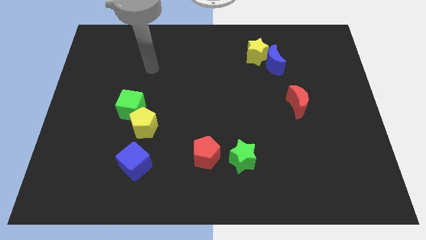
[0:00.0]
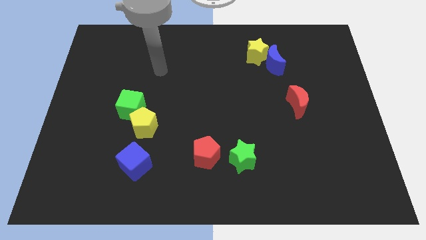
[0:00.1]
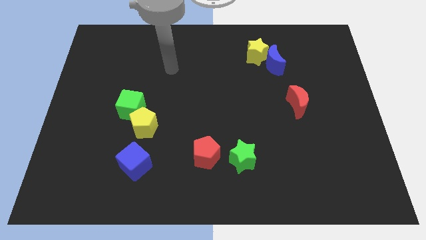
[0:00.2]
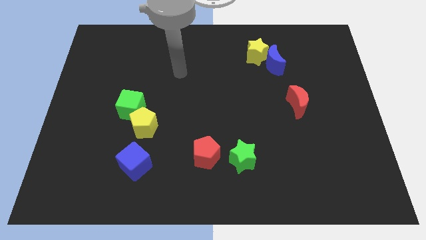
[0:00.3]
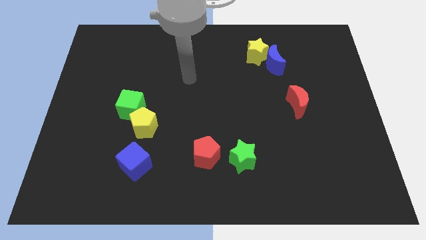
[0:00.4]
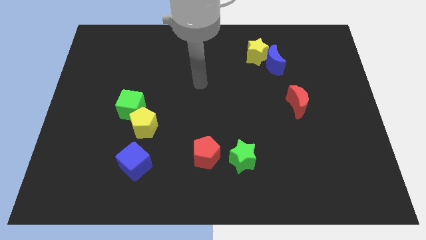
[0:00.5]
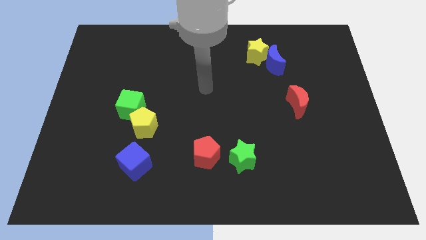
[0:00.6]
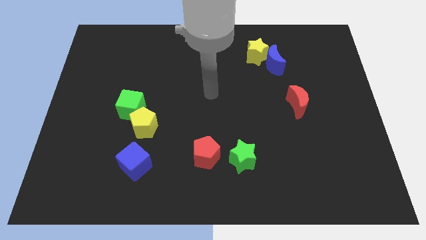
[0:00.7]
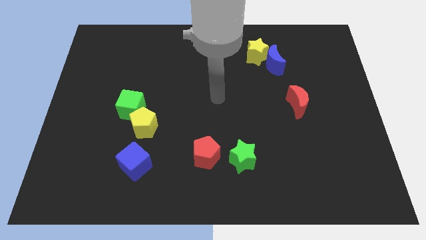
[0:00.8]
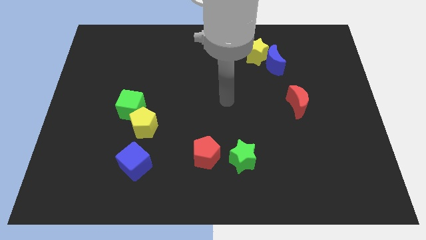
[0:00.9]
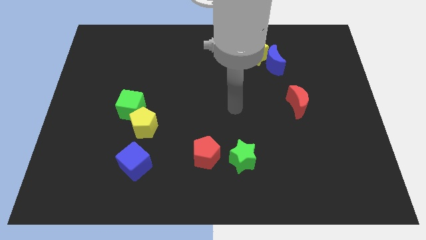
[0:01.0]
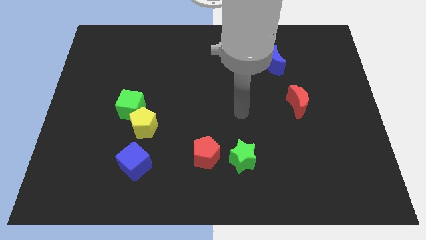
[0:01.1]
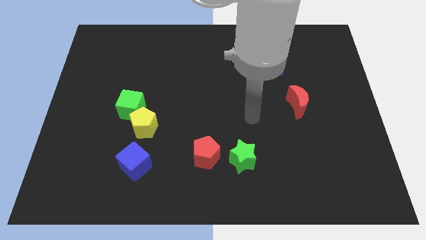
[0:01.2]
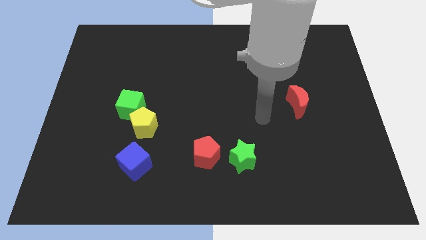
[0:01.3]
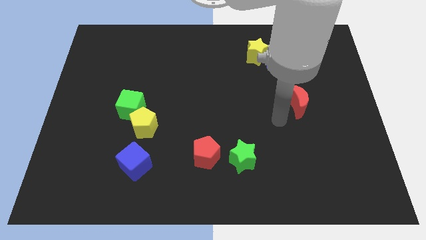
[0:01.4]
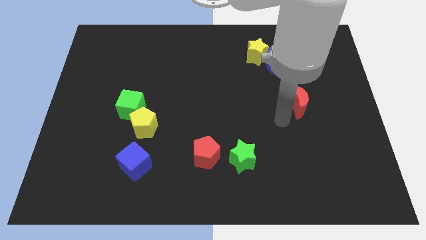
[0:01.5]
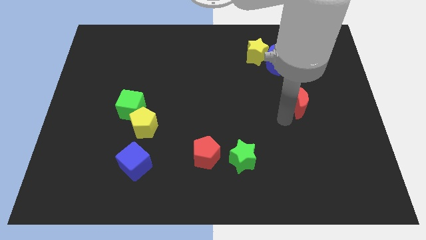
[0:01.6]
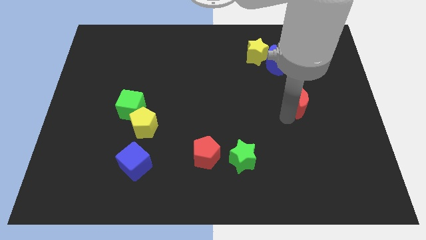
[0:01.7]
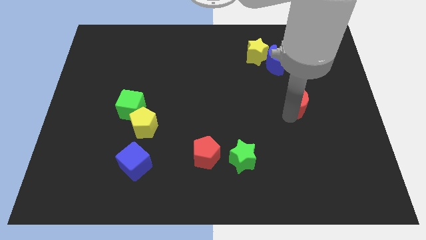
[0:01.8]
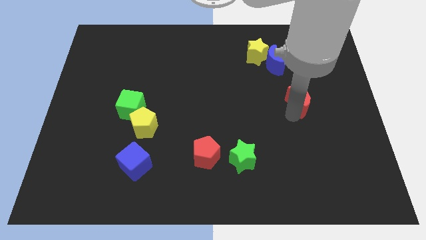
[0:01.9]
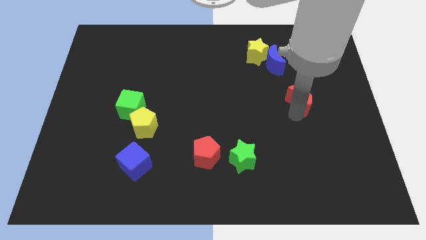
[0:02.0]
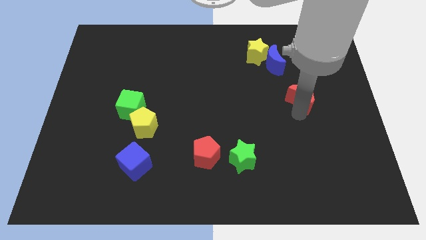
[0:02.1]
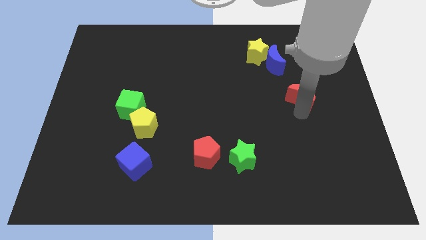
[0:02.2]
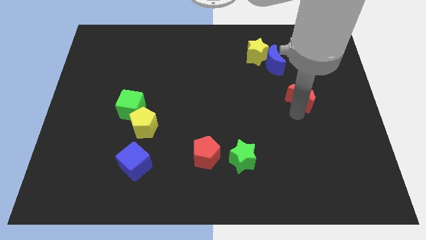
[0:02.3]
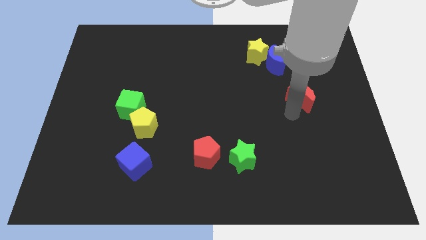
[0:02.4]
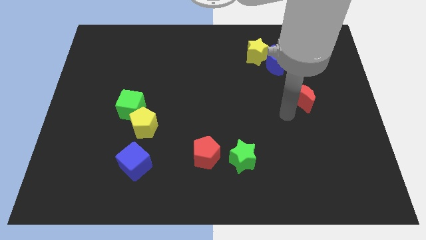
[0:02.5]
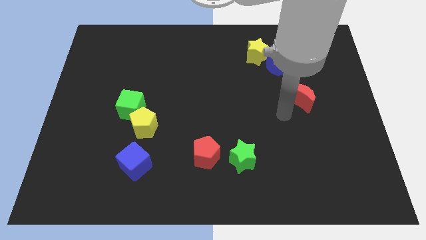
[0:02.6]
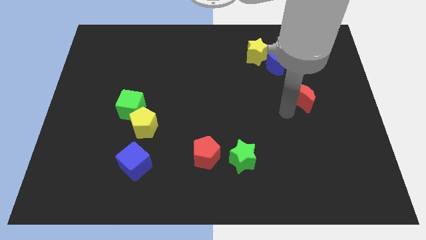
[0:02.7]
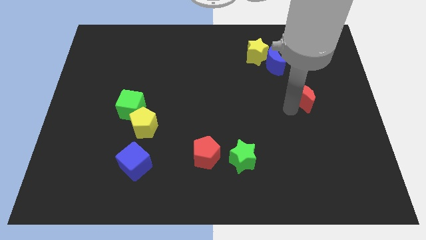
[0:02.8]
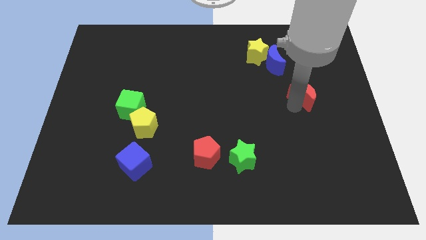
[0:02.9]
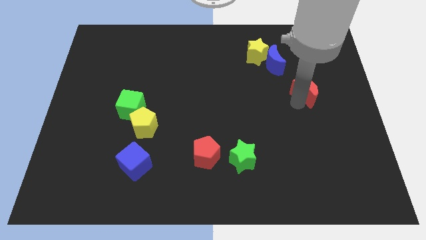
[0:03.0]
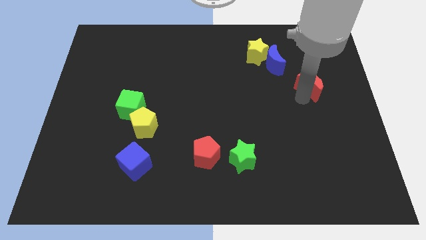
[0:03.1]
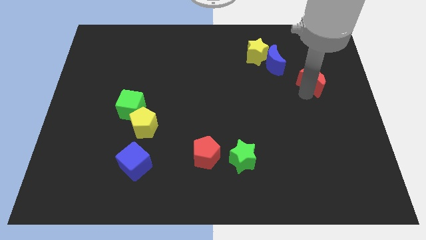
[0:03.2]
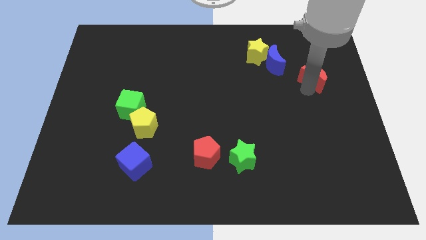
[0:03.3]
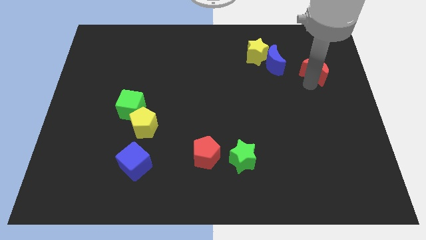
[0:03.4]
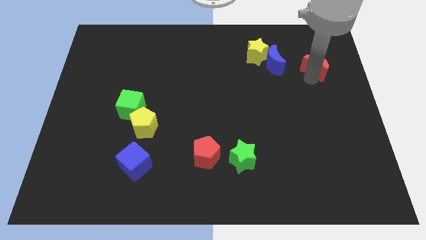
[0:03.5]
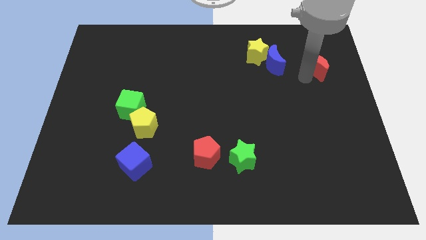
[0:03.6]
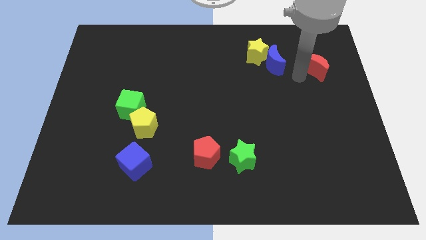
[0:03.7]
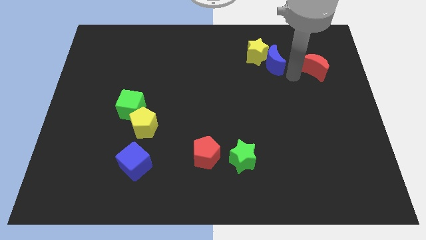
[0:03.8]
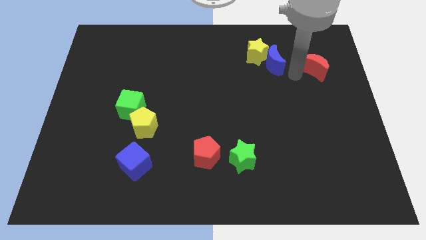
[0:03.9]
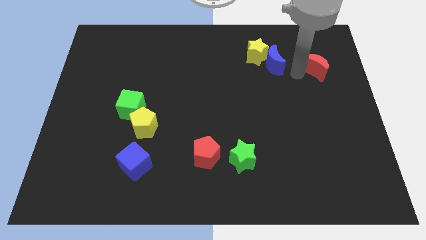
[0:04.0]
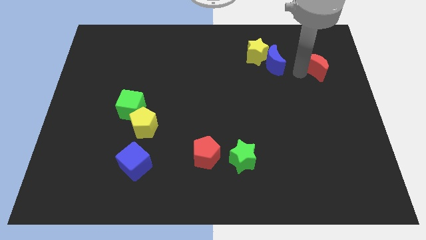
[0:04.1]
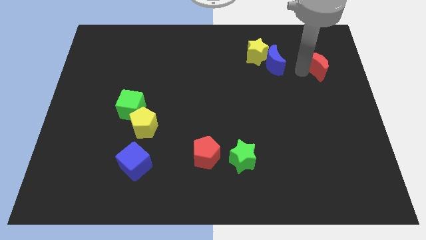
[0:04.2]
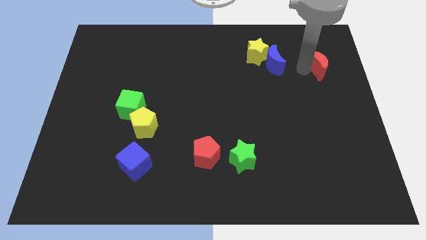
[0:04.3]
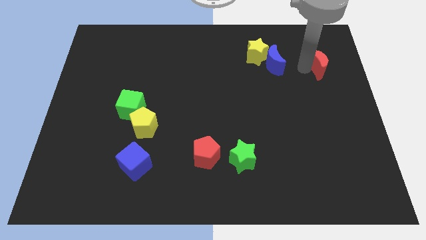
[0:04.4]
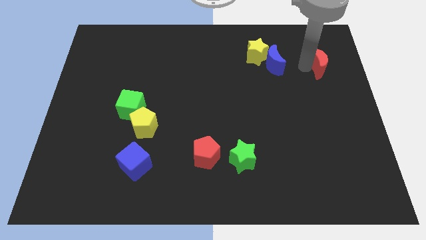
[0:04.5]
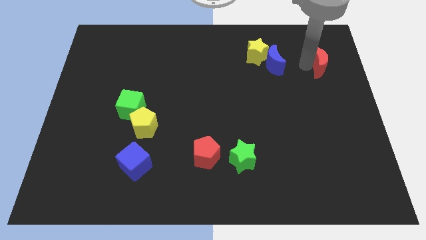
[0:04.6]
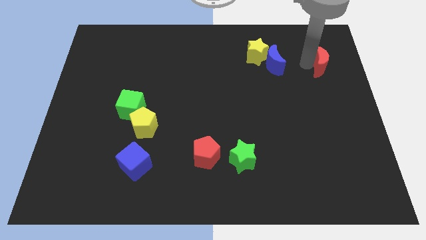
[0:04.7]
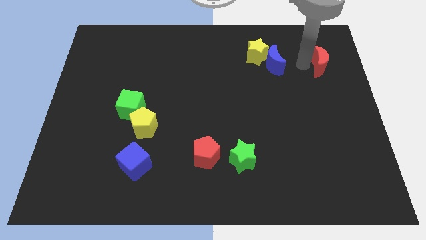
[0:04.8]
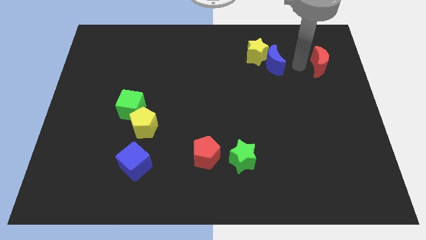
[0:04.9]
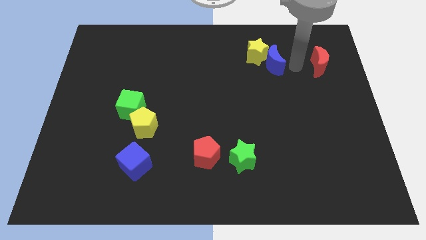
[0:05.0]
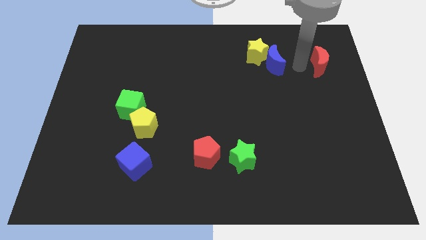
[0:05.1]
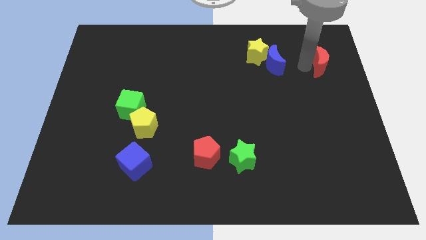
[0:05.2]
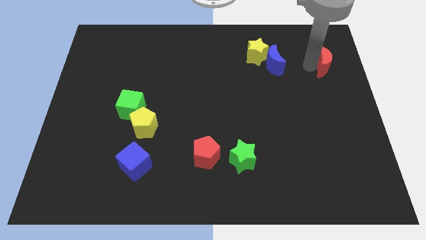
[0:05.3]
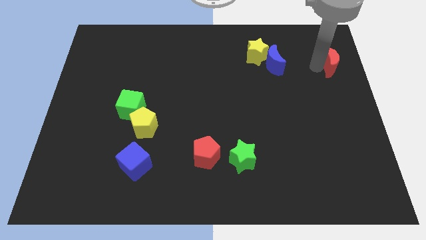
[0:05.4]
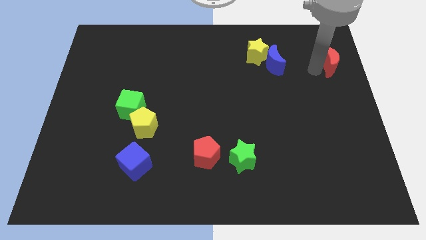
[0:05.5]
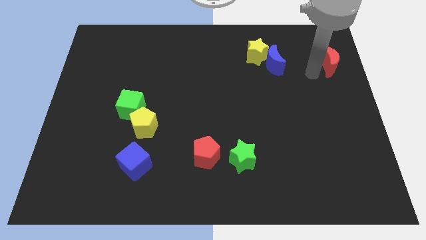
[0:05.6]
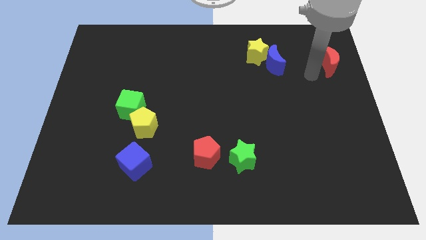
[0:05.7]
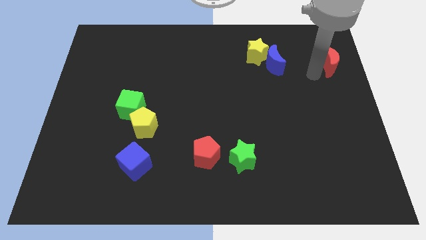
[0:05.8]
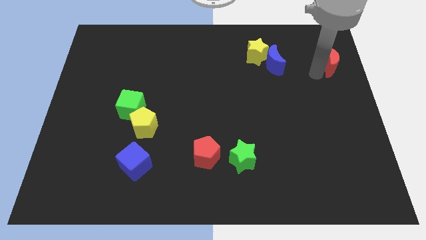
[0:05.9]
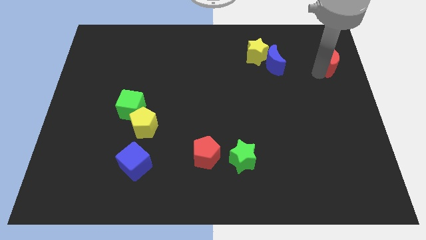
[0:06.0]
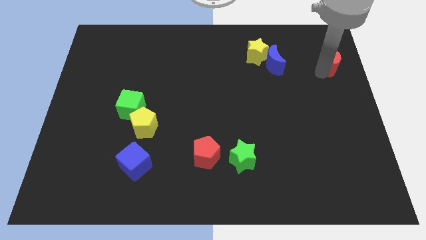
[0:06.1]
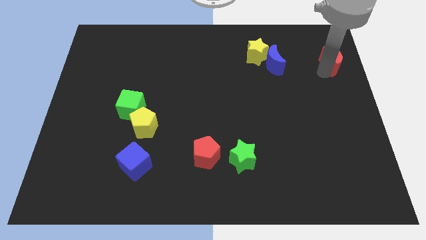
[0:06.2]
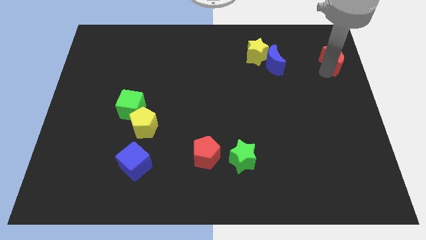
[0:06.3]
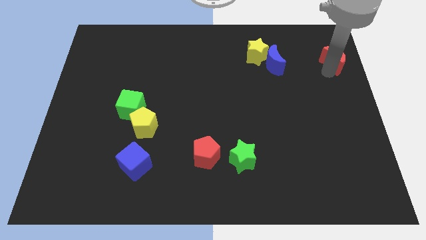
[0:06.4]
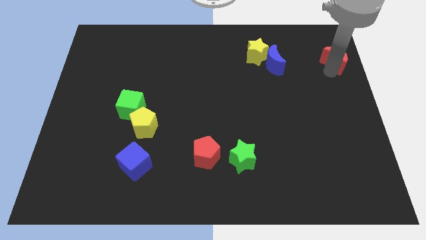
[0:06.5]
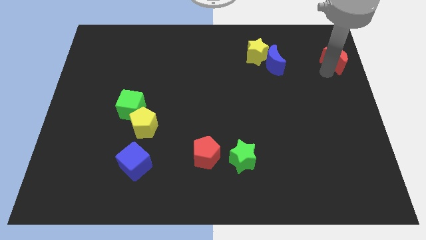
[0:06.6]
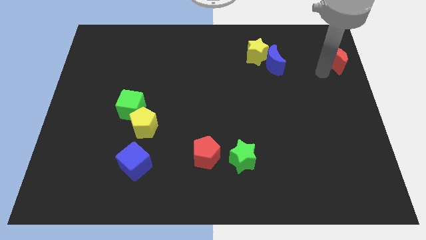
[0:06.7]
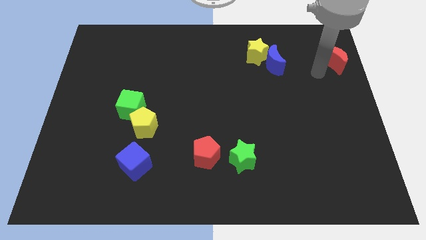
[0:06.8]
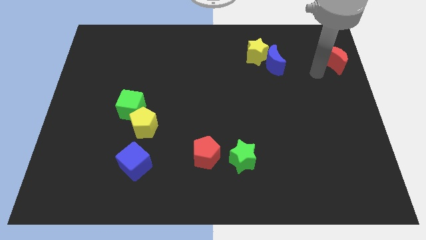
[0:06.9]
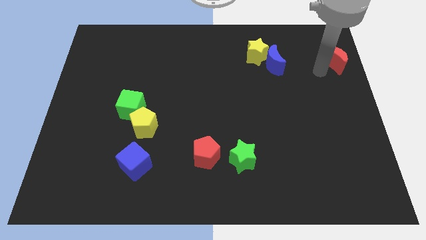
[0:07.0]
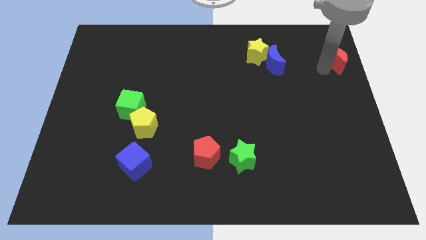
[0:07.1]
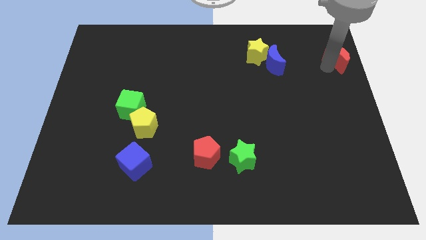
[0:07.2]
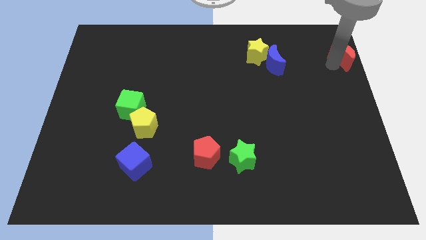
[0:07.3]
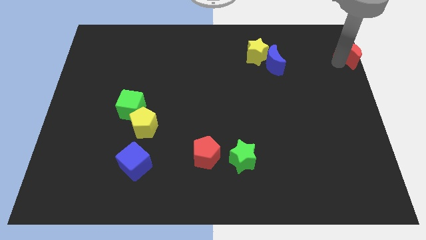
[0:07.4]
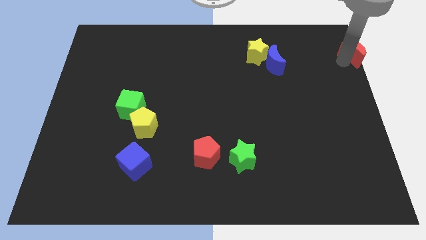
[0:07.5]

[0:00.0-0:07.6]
slide the red moon to the top right
